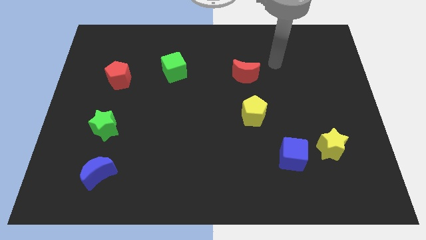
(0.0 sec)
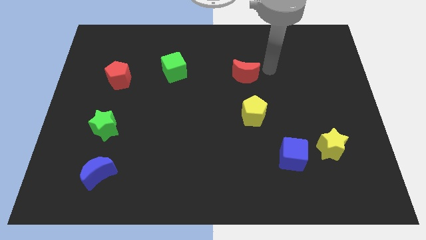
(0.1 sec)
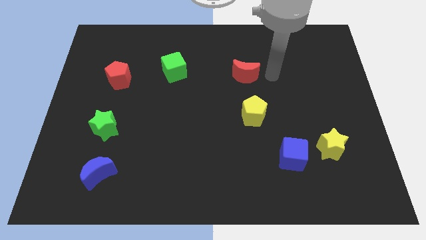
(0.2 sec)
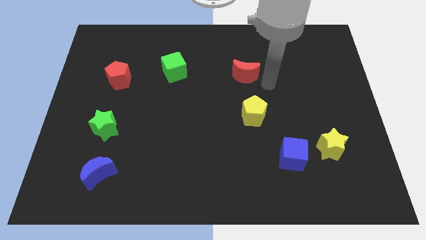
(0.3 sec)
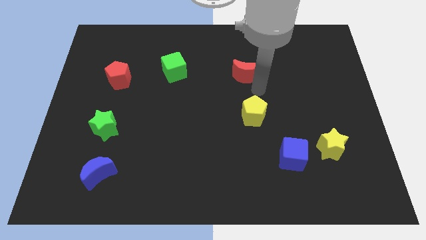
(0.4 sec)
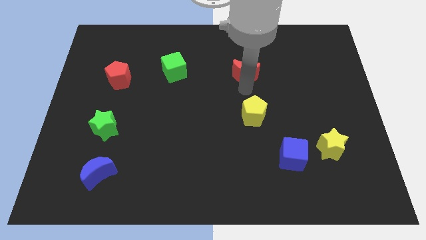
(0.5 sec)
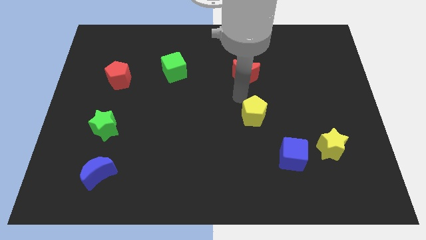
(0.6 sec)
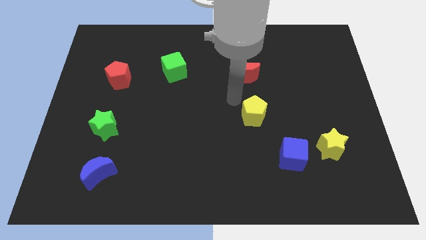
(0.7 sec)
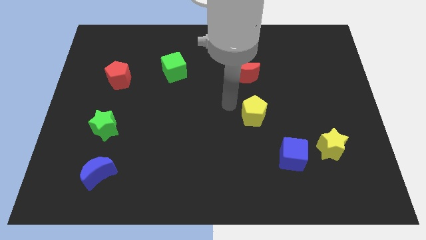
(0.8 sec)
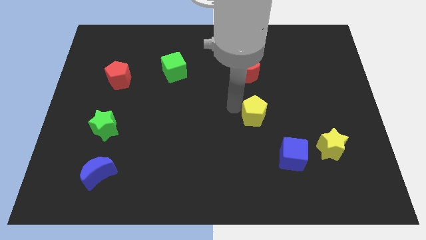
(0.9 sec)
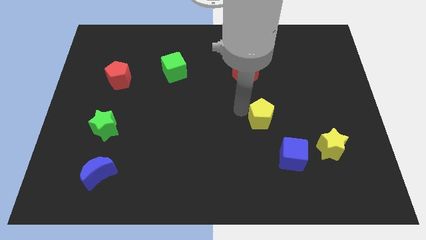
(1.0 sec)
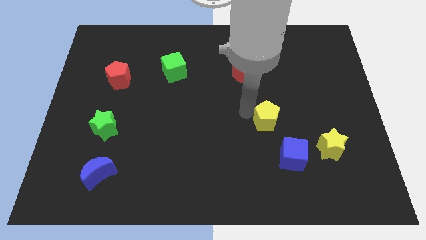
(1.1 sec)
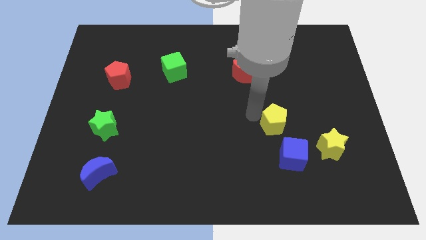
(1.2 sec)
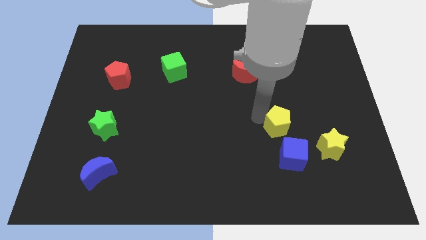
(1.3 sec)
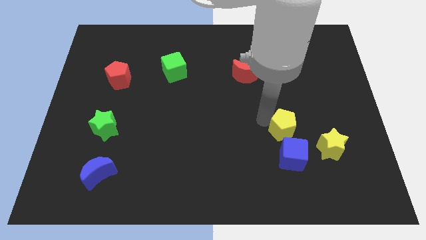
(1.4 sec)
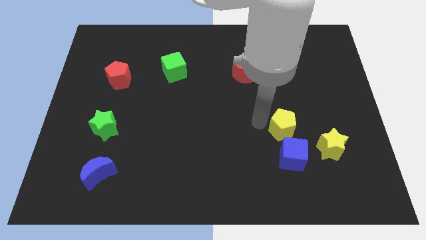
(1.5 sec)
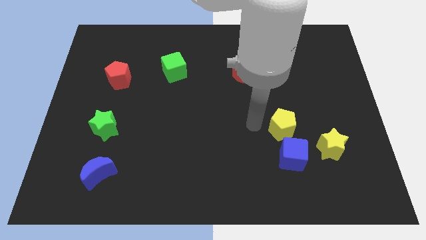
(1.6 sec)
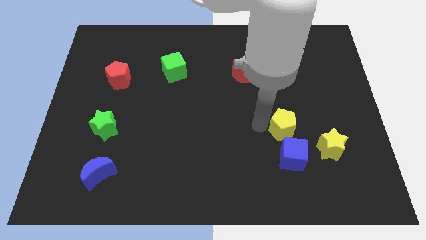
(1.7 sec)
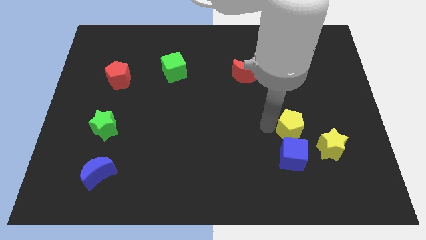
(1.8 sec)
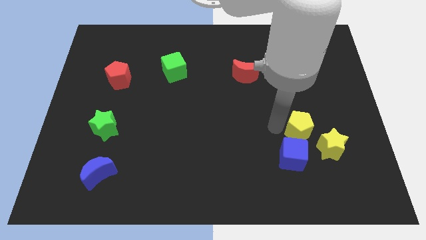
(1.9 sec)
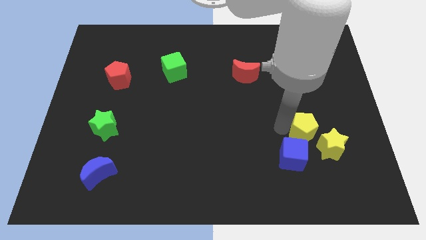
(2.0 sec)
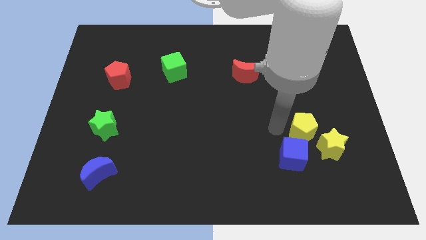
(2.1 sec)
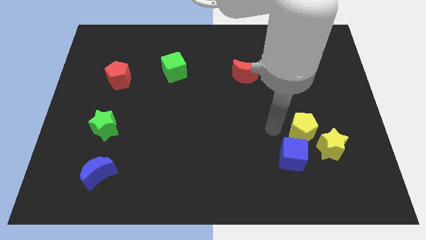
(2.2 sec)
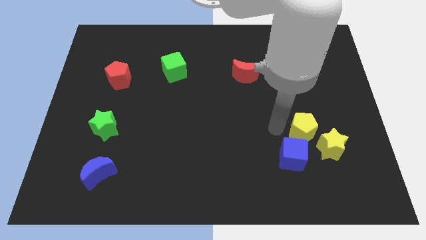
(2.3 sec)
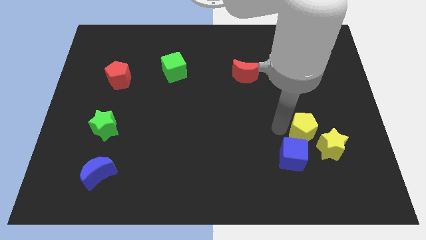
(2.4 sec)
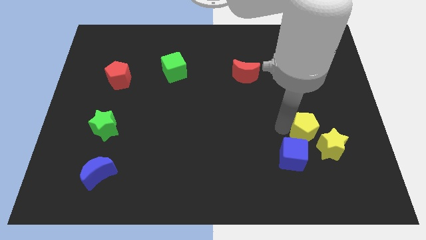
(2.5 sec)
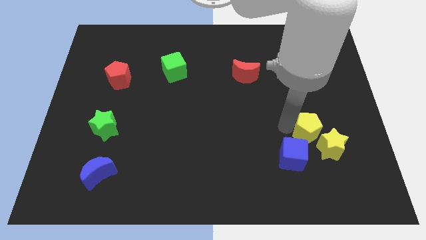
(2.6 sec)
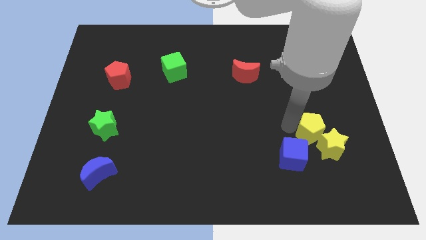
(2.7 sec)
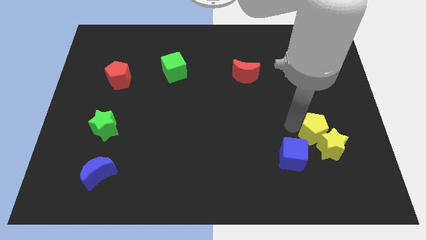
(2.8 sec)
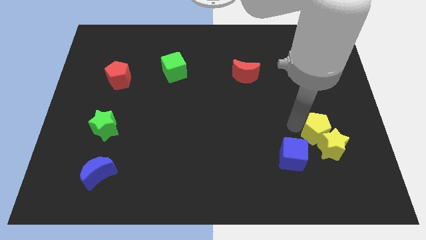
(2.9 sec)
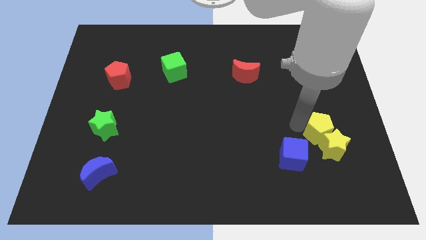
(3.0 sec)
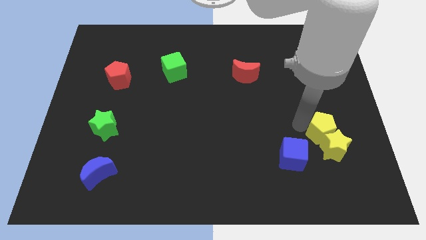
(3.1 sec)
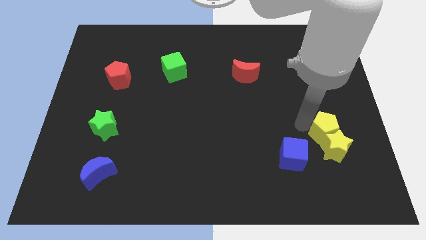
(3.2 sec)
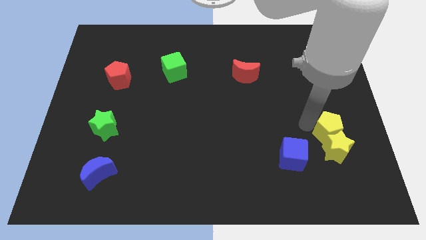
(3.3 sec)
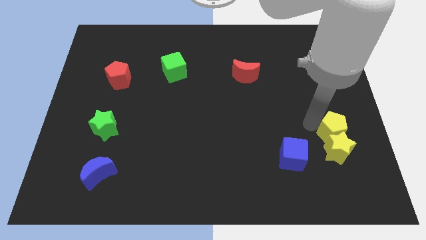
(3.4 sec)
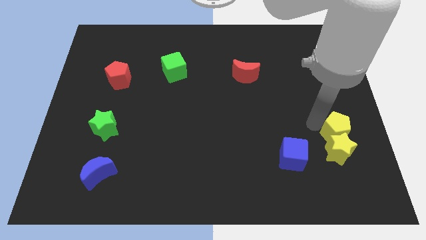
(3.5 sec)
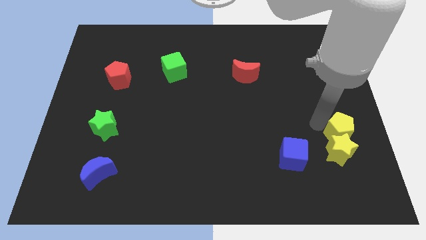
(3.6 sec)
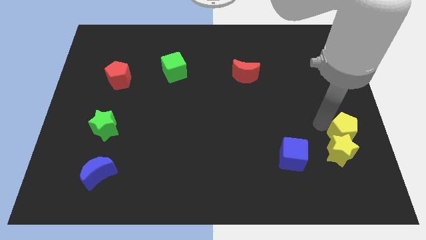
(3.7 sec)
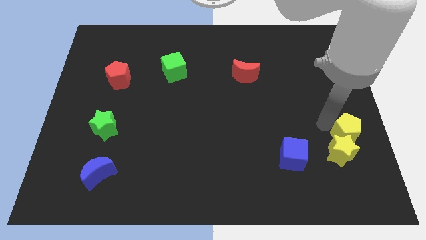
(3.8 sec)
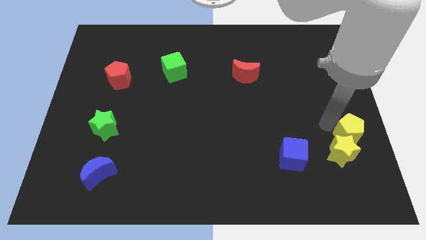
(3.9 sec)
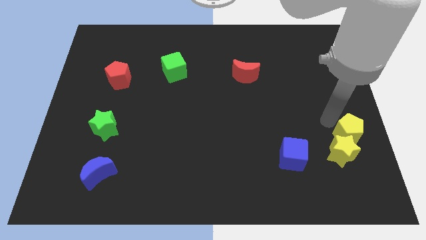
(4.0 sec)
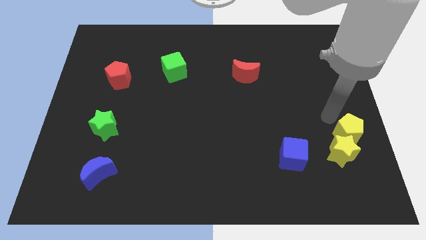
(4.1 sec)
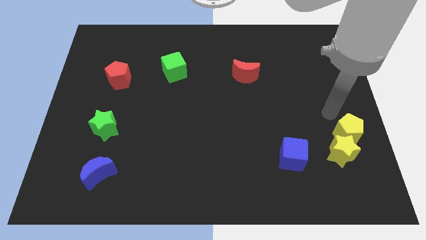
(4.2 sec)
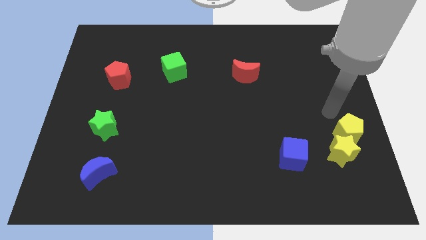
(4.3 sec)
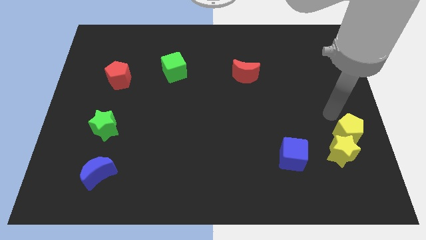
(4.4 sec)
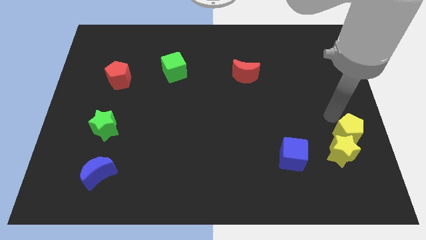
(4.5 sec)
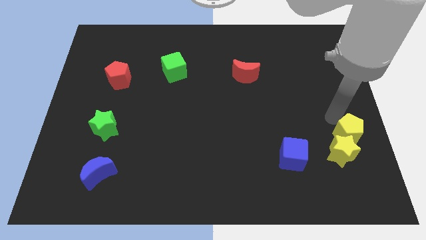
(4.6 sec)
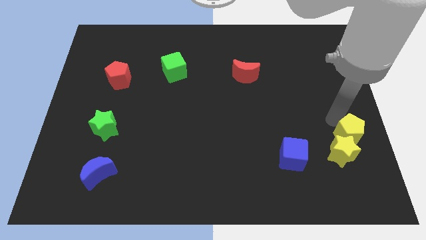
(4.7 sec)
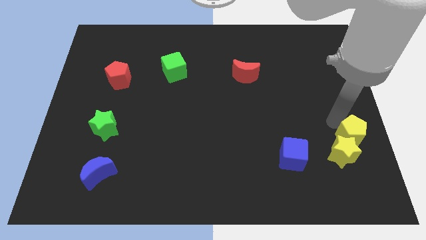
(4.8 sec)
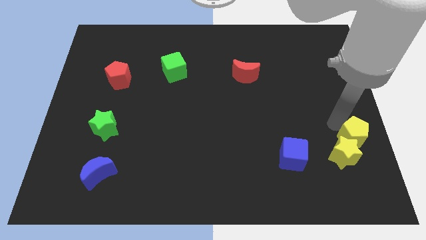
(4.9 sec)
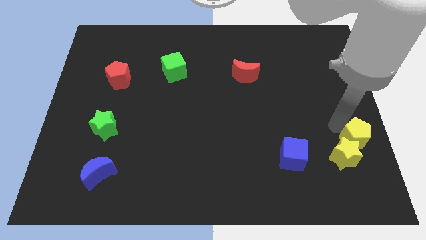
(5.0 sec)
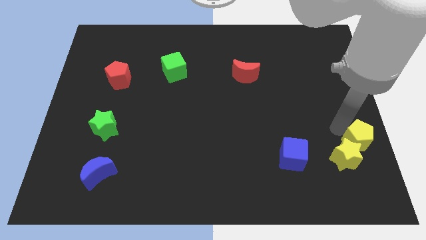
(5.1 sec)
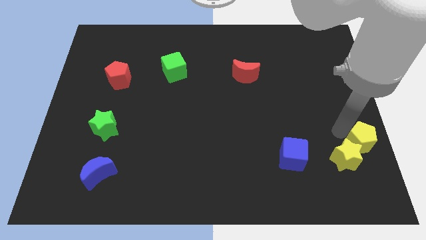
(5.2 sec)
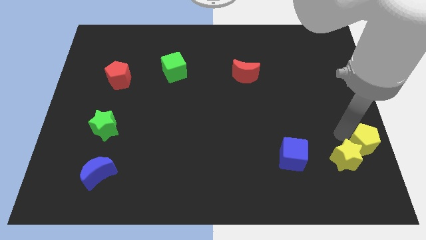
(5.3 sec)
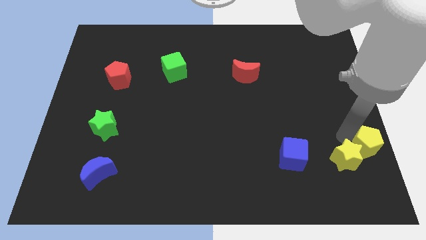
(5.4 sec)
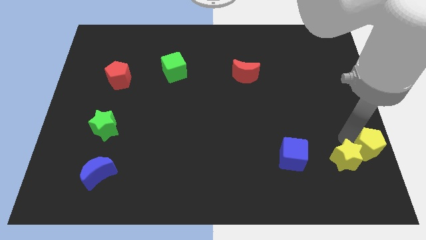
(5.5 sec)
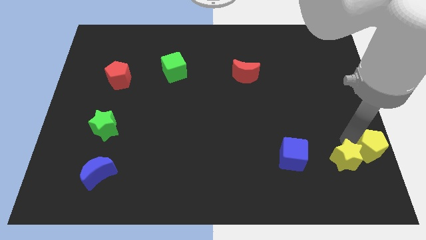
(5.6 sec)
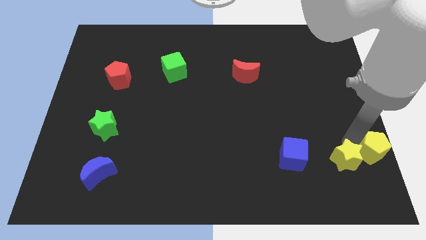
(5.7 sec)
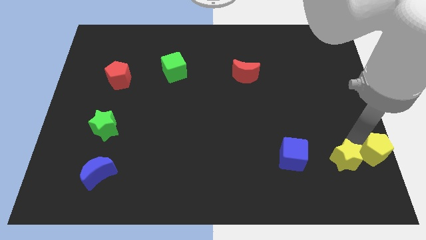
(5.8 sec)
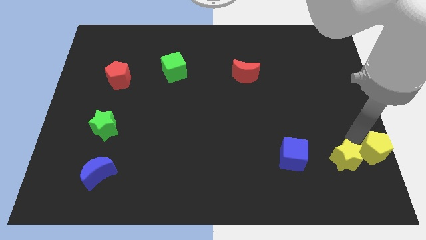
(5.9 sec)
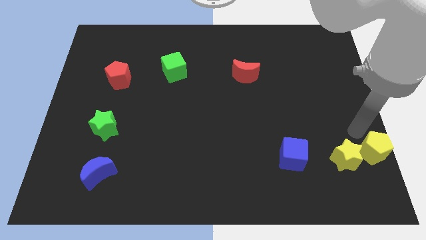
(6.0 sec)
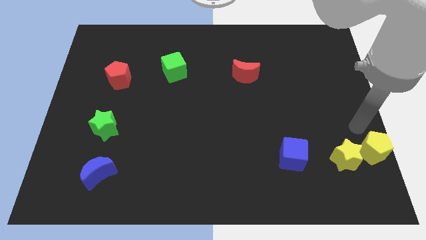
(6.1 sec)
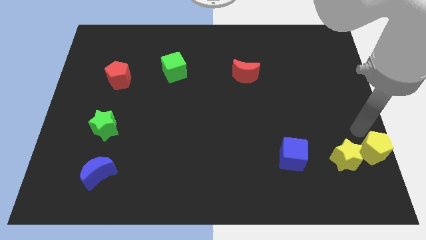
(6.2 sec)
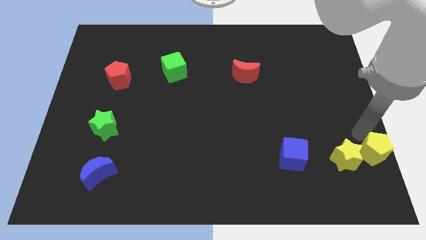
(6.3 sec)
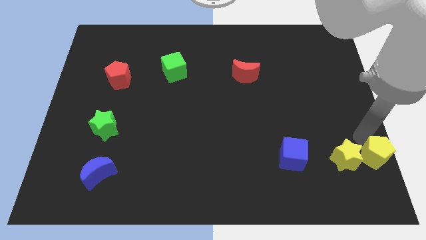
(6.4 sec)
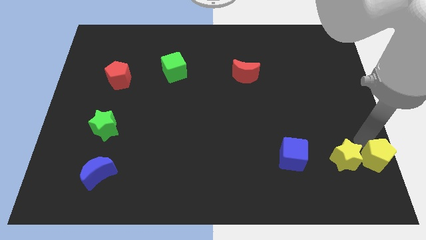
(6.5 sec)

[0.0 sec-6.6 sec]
push the yellow pentagon to the lower right corner
